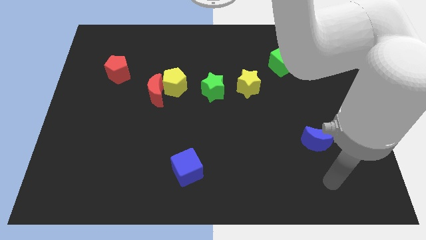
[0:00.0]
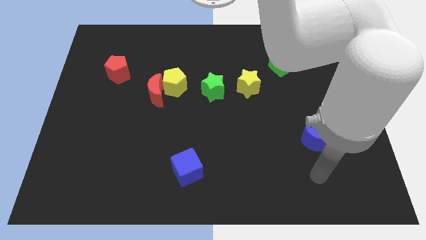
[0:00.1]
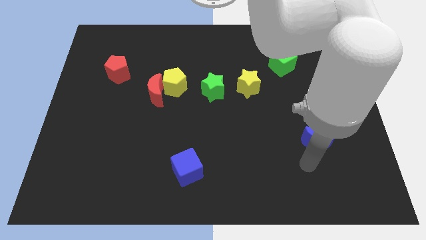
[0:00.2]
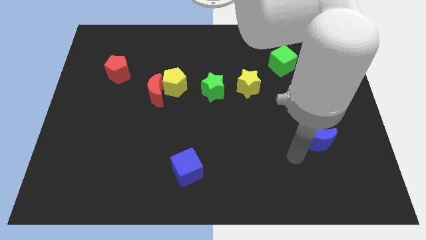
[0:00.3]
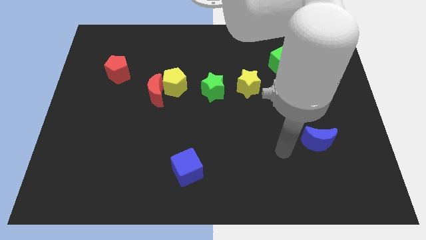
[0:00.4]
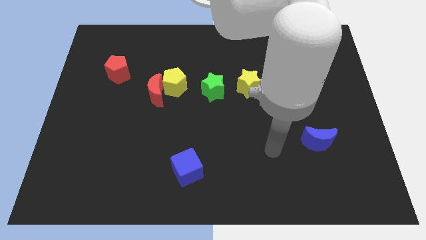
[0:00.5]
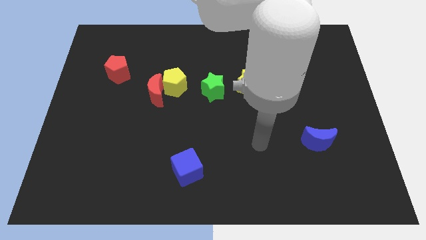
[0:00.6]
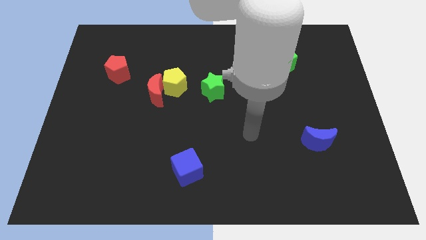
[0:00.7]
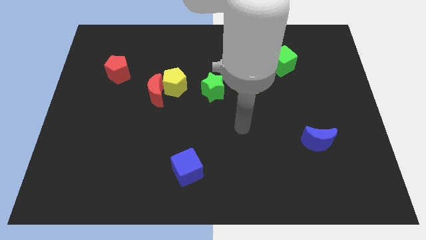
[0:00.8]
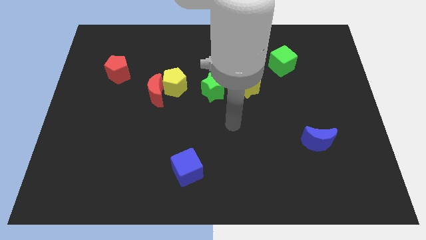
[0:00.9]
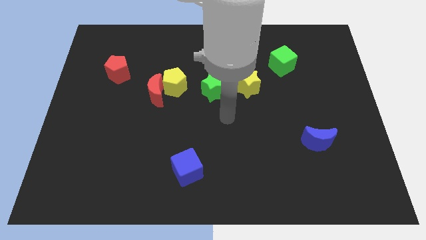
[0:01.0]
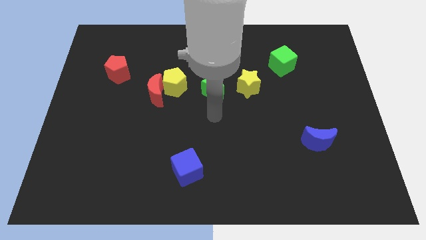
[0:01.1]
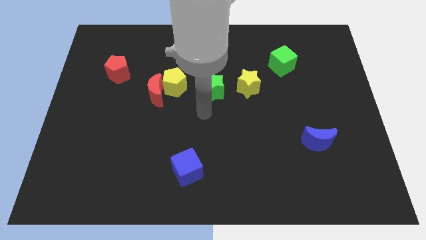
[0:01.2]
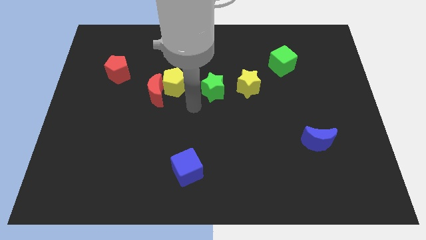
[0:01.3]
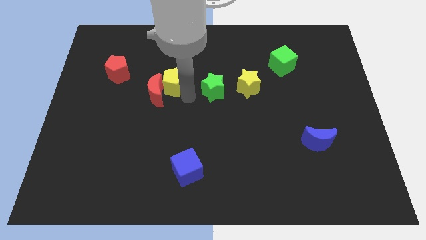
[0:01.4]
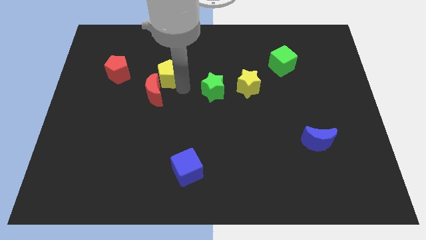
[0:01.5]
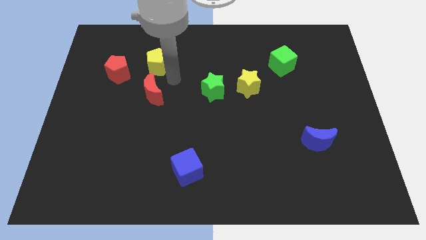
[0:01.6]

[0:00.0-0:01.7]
move the red moon away from the yellow pentagon

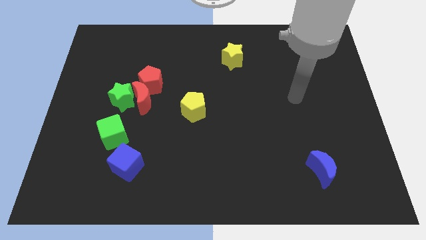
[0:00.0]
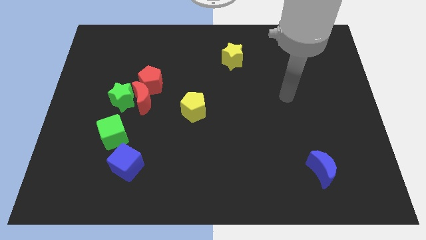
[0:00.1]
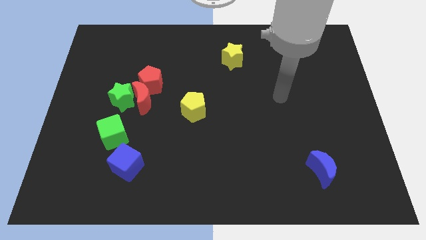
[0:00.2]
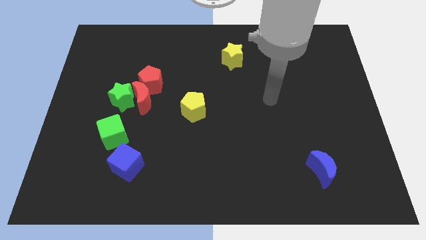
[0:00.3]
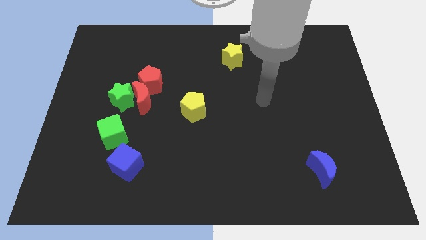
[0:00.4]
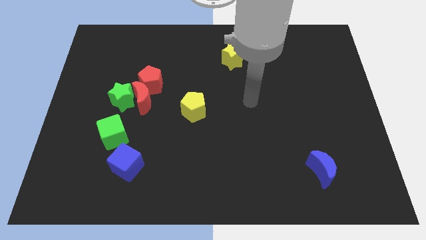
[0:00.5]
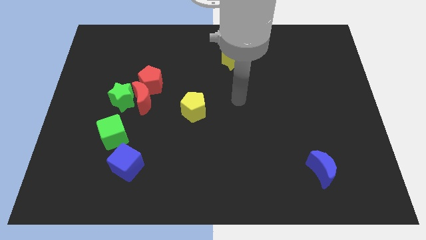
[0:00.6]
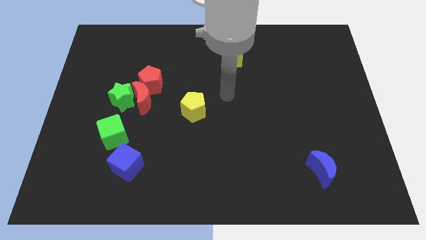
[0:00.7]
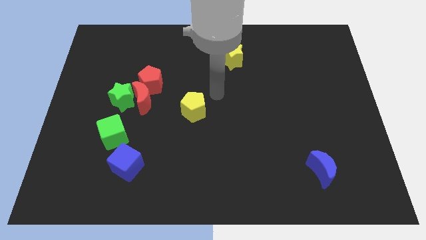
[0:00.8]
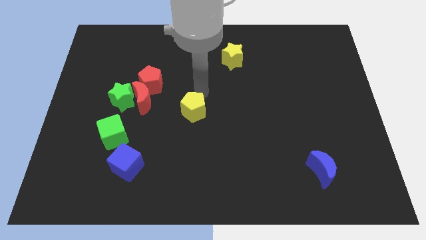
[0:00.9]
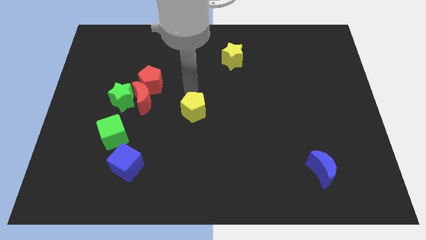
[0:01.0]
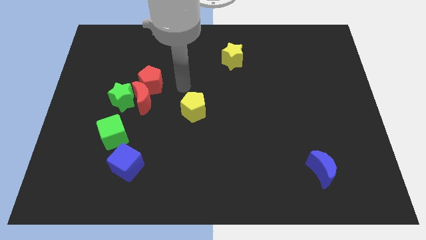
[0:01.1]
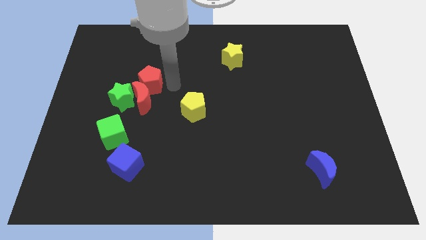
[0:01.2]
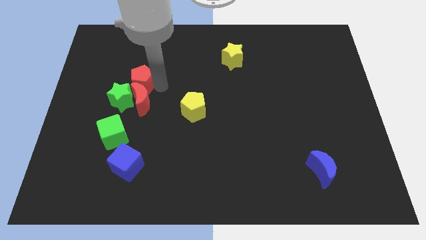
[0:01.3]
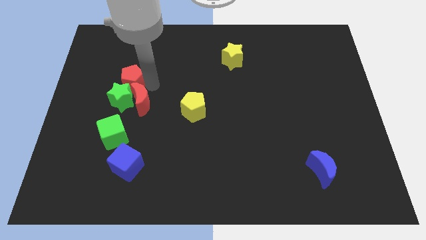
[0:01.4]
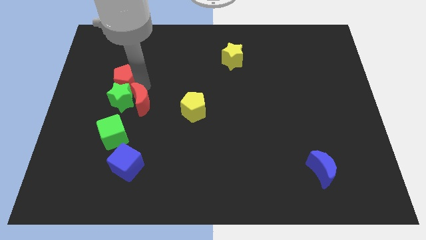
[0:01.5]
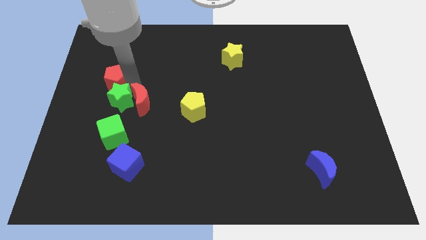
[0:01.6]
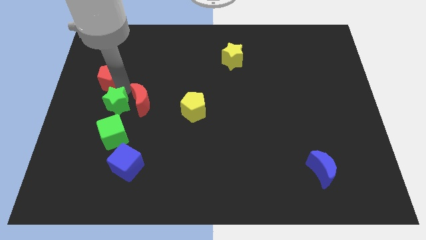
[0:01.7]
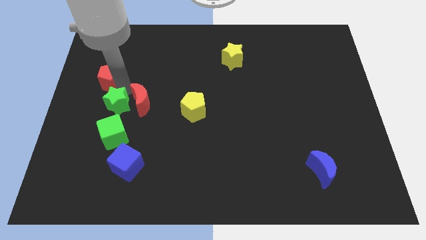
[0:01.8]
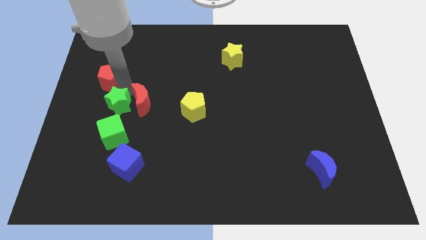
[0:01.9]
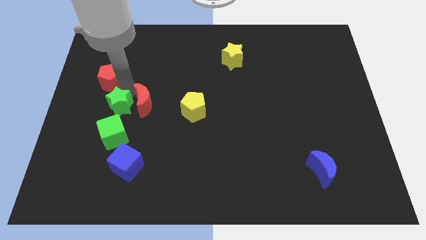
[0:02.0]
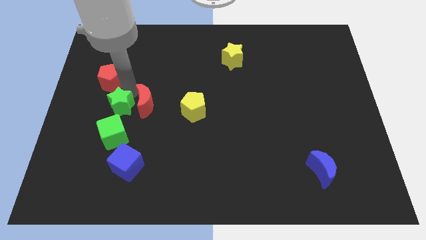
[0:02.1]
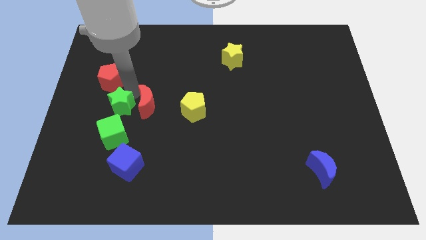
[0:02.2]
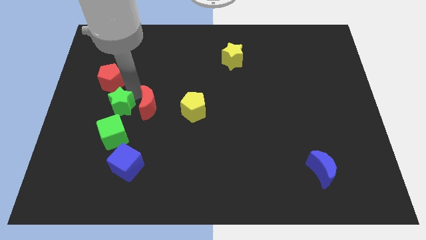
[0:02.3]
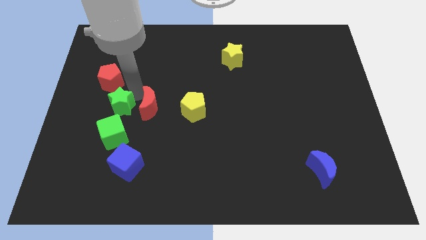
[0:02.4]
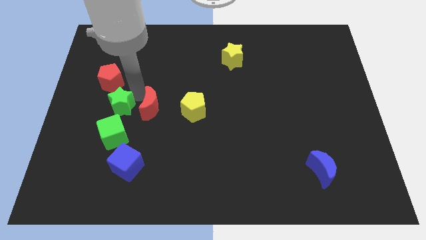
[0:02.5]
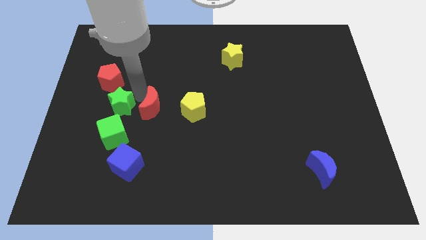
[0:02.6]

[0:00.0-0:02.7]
move the red moon away from the green star and red pentagon

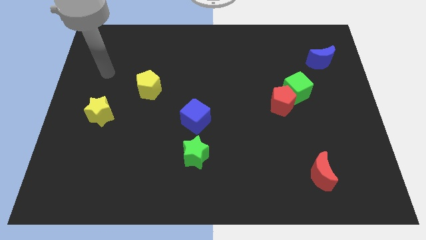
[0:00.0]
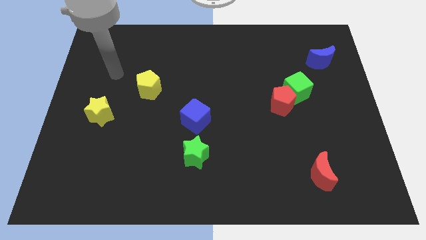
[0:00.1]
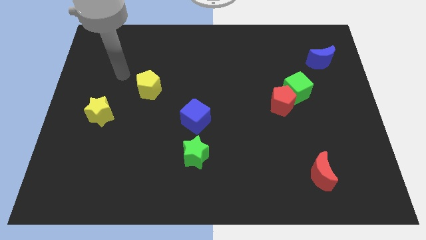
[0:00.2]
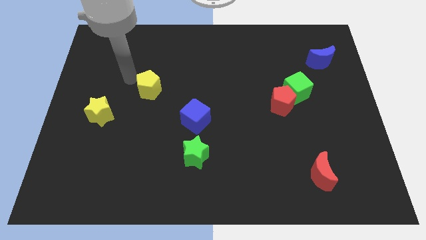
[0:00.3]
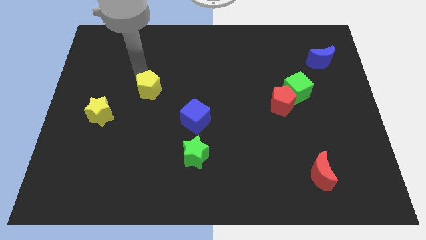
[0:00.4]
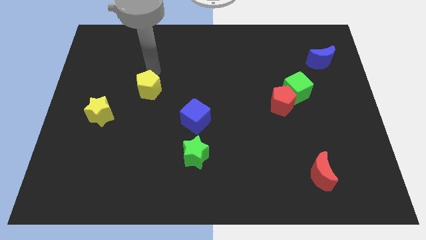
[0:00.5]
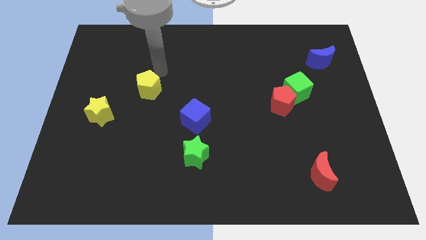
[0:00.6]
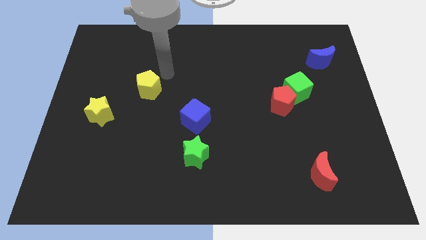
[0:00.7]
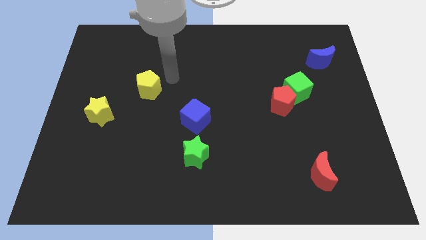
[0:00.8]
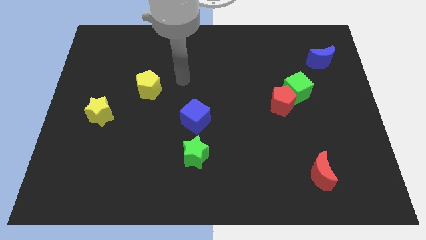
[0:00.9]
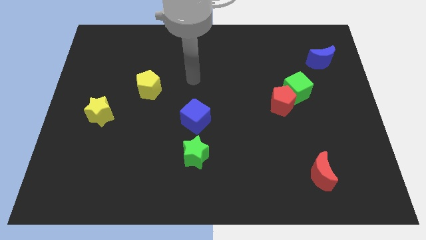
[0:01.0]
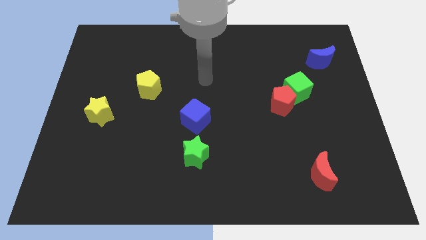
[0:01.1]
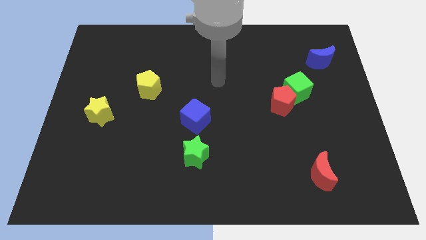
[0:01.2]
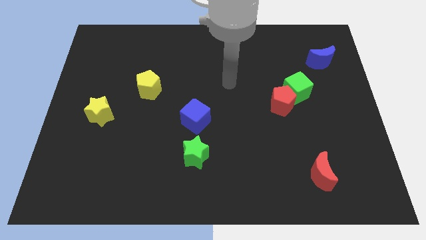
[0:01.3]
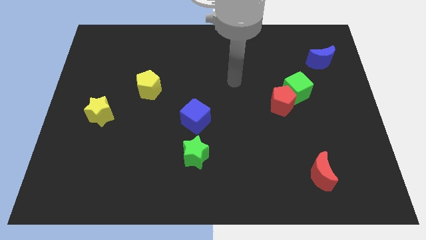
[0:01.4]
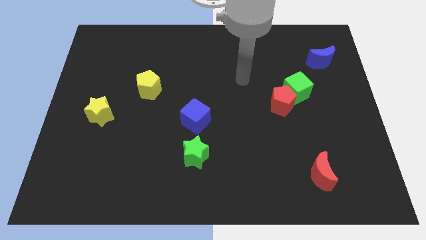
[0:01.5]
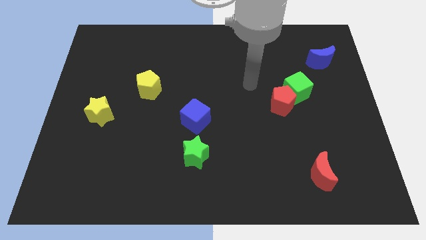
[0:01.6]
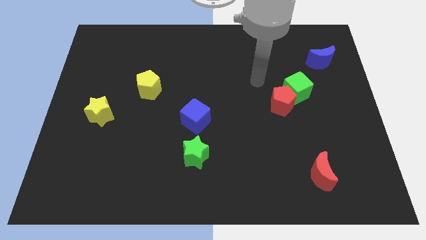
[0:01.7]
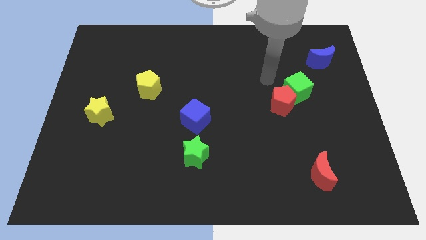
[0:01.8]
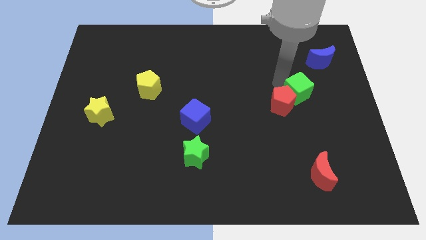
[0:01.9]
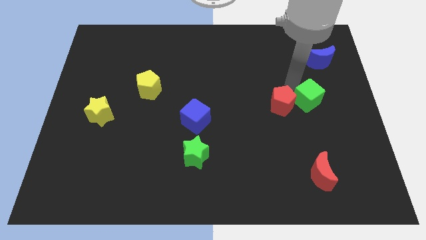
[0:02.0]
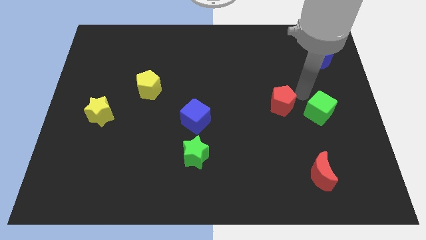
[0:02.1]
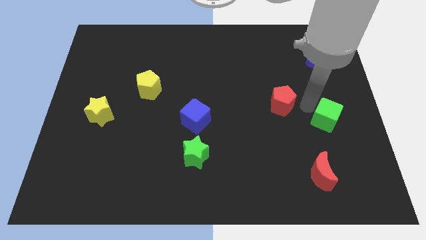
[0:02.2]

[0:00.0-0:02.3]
separate the red pentagon from the green cube

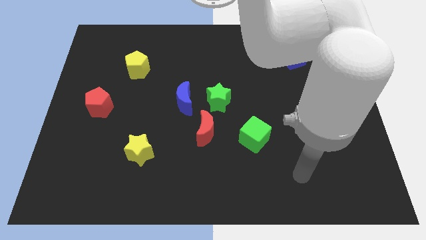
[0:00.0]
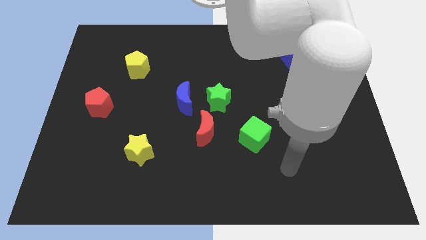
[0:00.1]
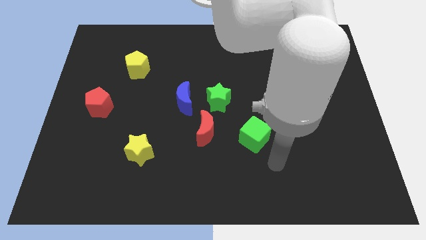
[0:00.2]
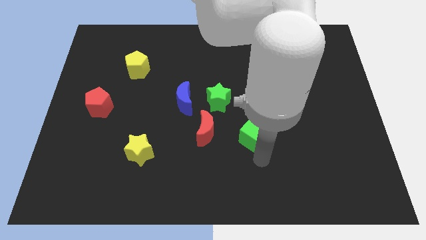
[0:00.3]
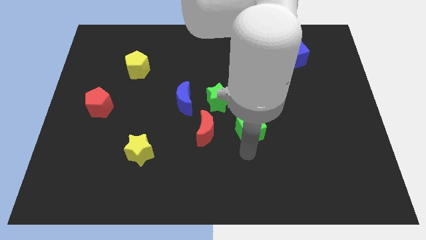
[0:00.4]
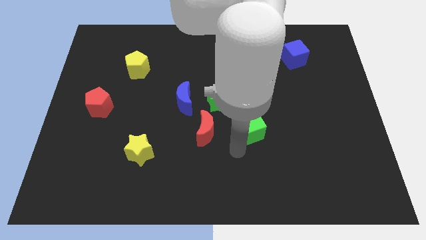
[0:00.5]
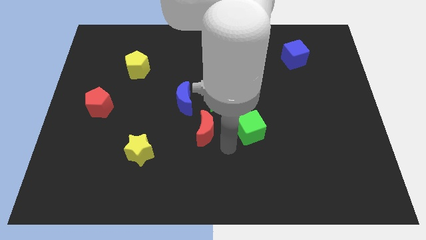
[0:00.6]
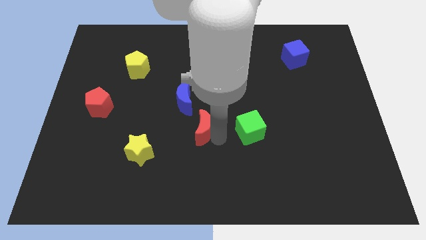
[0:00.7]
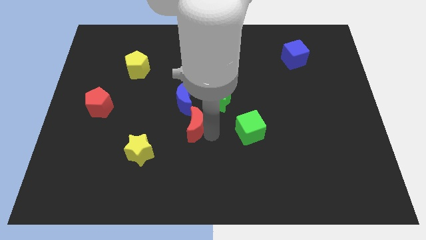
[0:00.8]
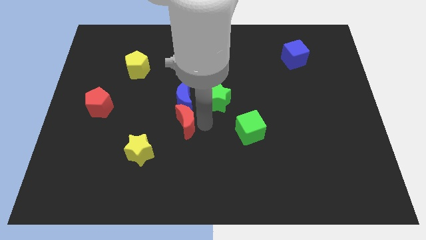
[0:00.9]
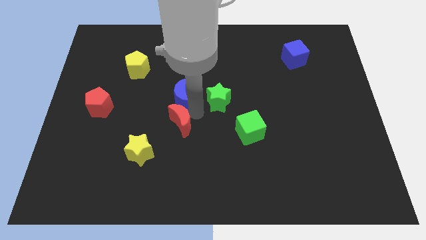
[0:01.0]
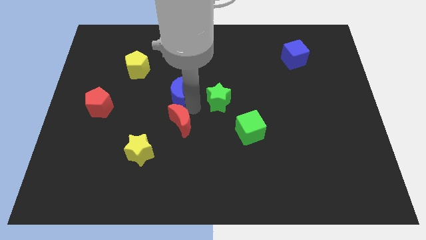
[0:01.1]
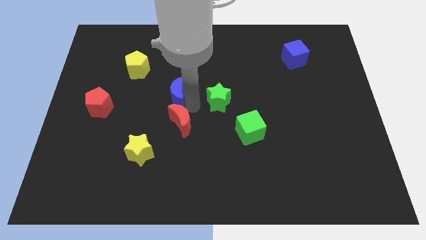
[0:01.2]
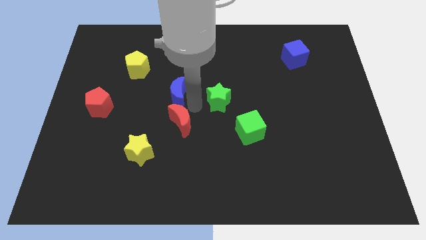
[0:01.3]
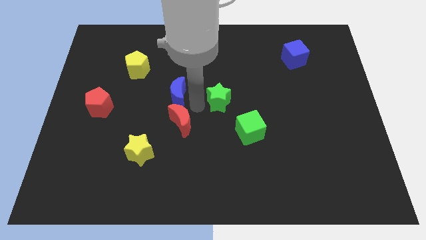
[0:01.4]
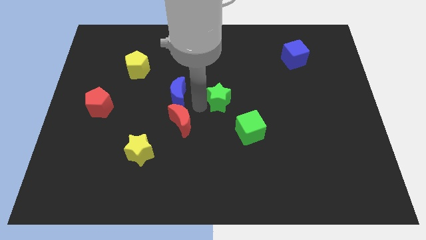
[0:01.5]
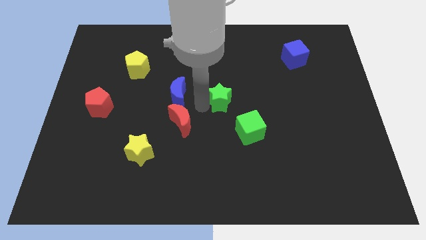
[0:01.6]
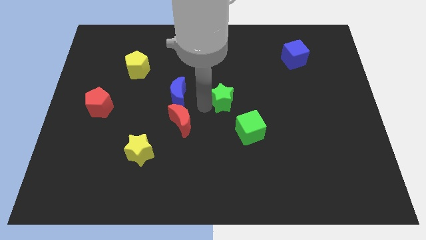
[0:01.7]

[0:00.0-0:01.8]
pull the green star apart from the blue moon and red moon

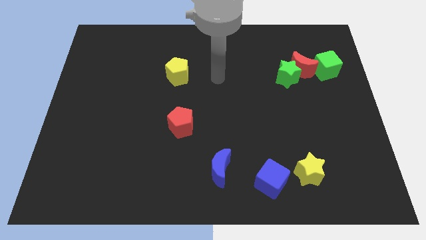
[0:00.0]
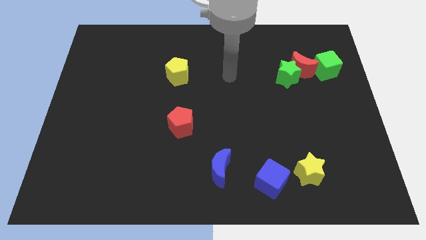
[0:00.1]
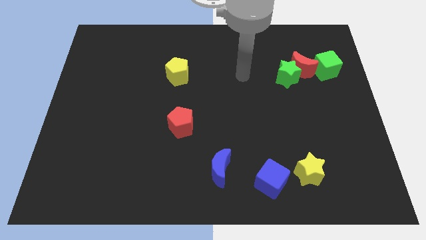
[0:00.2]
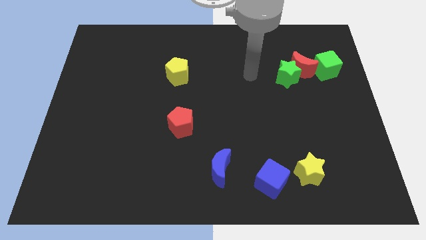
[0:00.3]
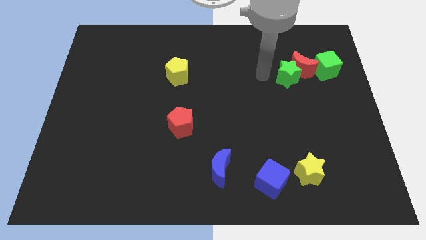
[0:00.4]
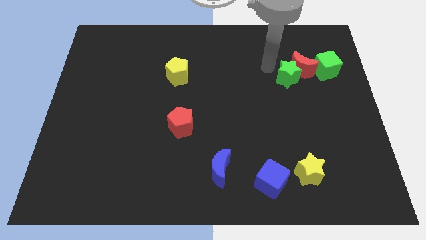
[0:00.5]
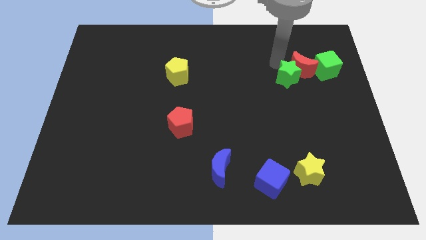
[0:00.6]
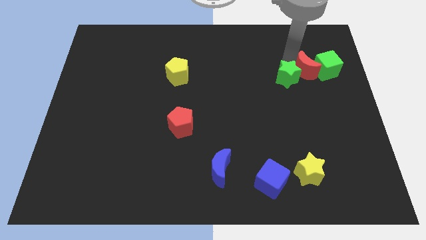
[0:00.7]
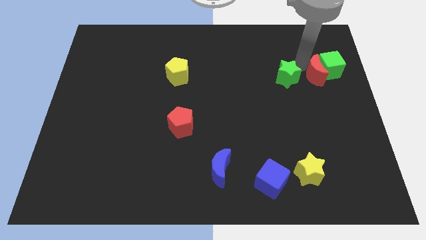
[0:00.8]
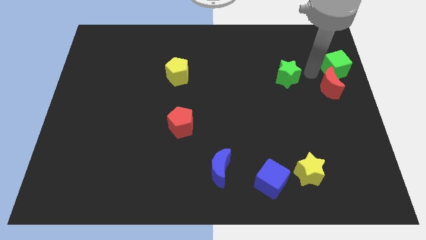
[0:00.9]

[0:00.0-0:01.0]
move the green star away from the red moon
